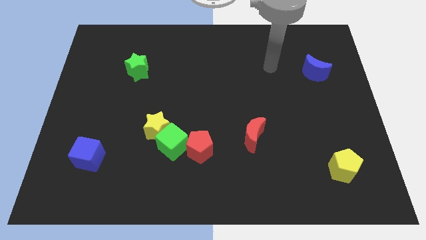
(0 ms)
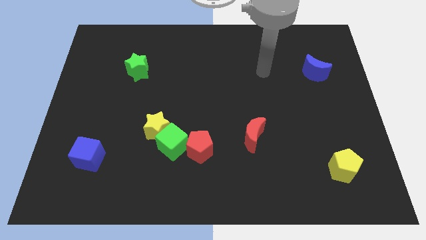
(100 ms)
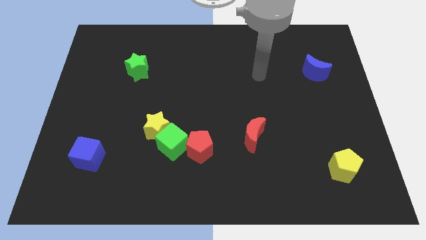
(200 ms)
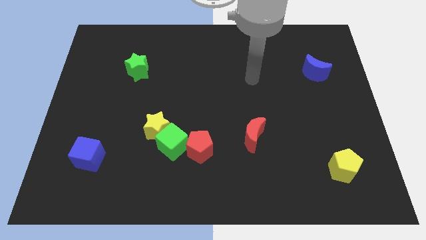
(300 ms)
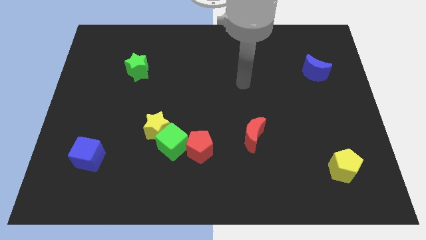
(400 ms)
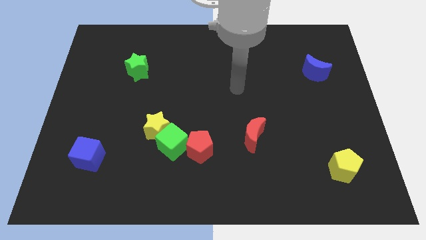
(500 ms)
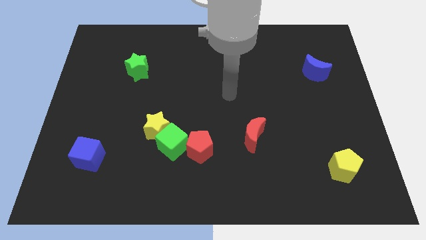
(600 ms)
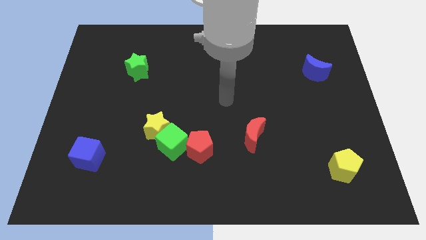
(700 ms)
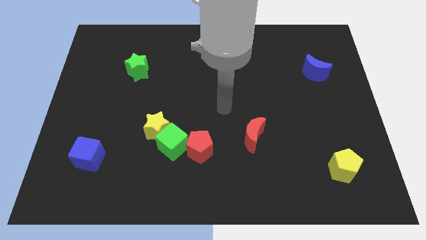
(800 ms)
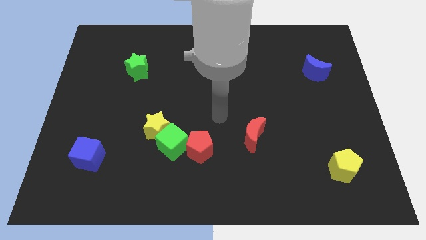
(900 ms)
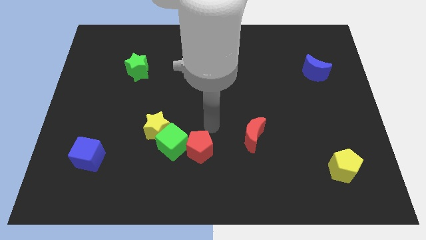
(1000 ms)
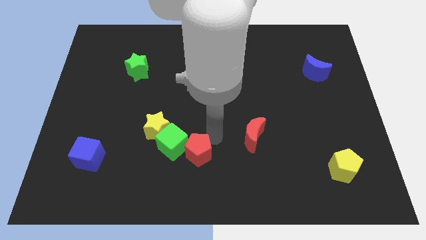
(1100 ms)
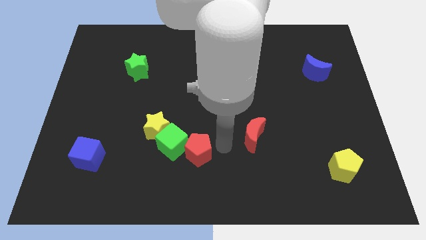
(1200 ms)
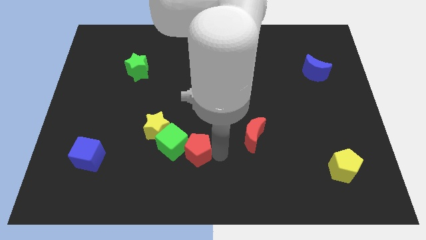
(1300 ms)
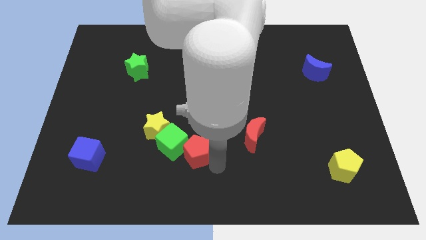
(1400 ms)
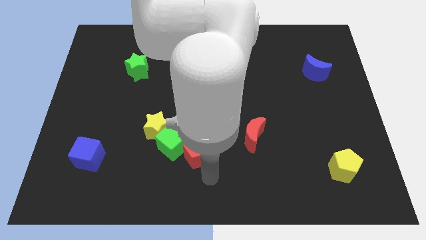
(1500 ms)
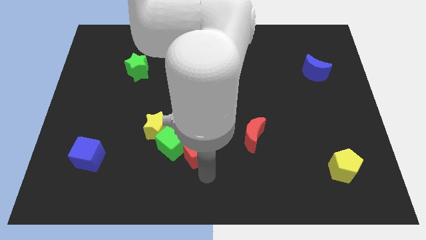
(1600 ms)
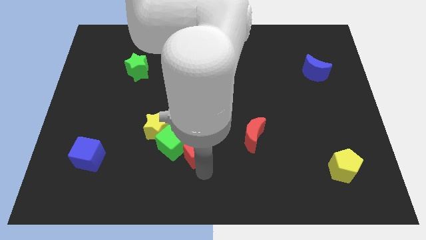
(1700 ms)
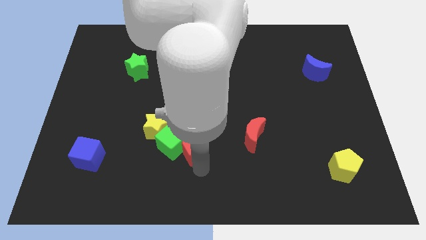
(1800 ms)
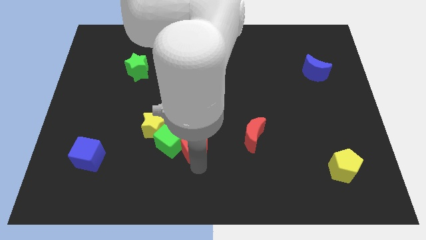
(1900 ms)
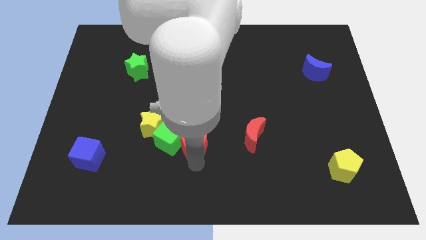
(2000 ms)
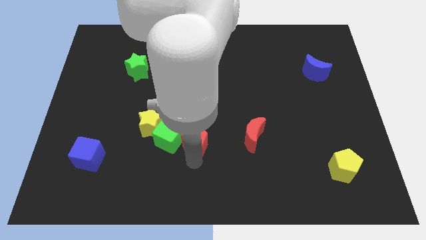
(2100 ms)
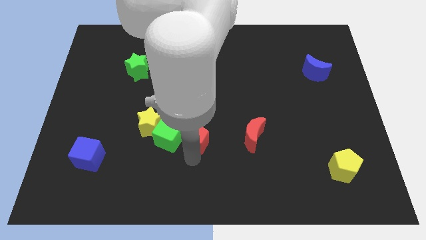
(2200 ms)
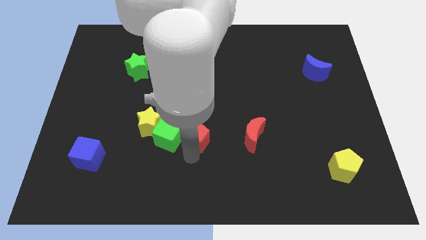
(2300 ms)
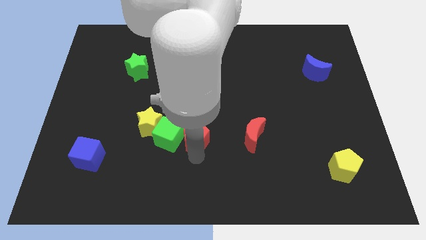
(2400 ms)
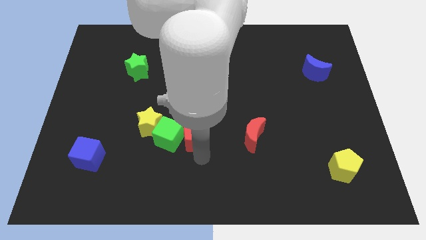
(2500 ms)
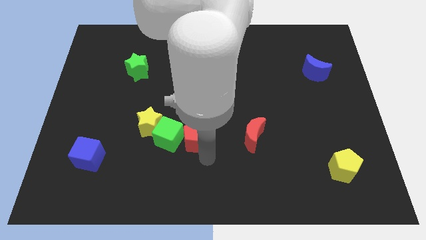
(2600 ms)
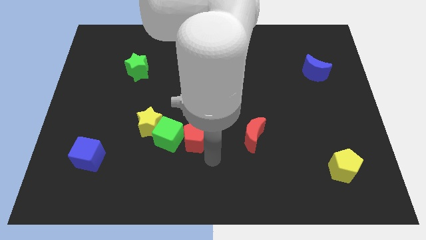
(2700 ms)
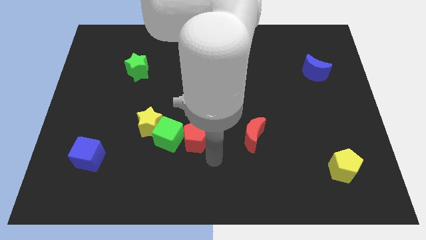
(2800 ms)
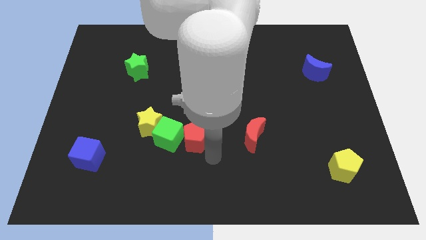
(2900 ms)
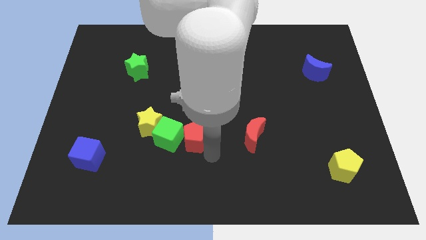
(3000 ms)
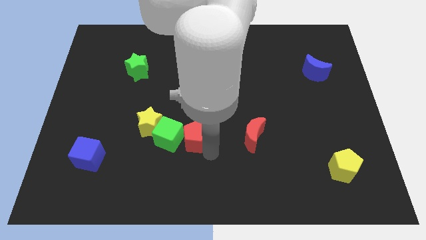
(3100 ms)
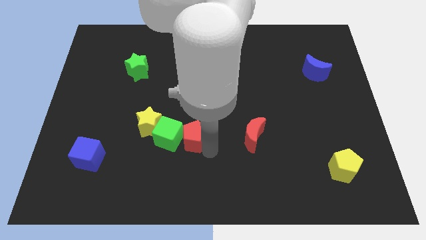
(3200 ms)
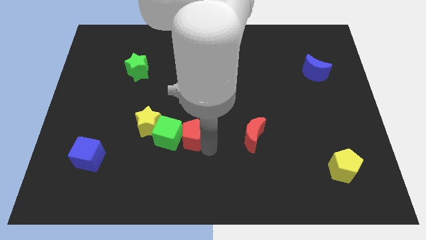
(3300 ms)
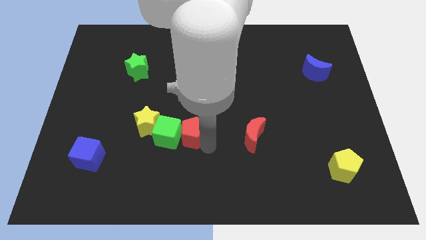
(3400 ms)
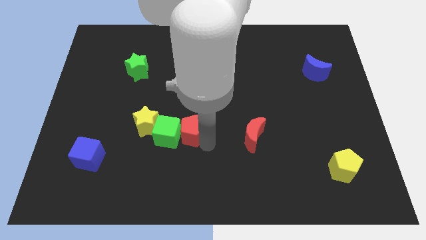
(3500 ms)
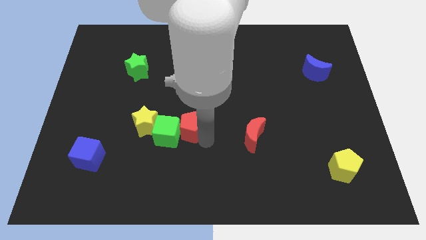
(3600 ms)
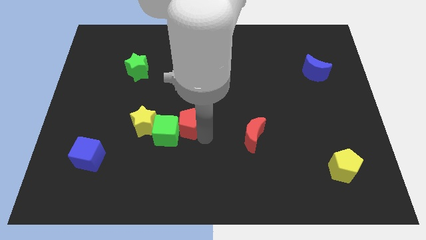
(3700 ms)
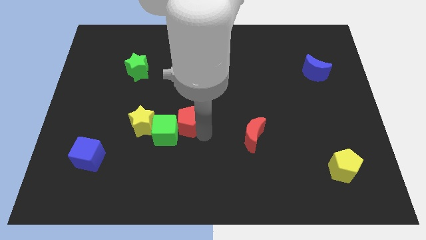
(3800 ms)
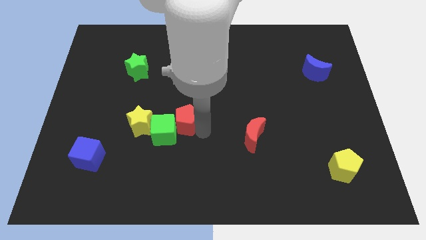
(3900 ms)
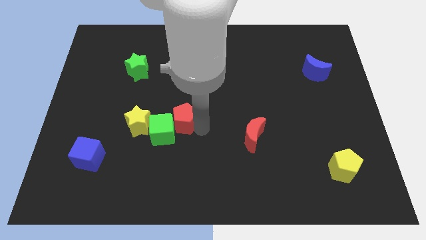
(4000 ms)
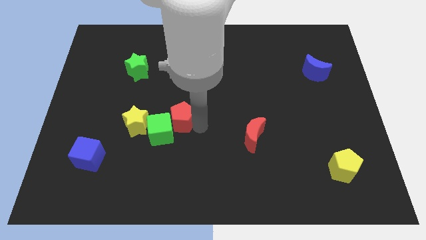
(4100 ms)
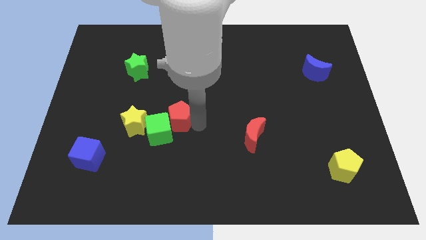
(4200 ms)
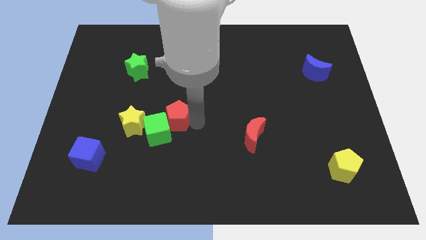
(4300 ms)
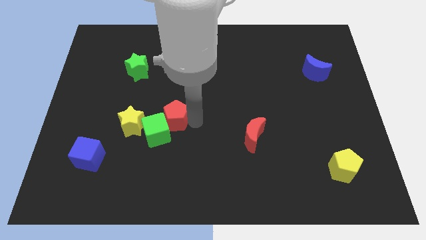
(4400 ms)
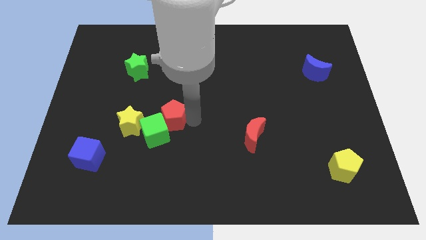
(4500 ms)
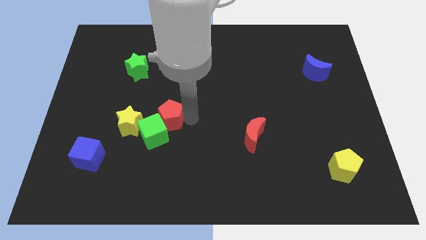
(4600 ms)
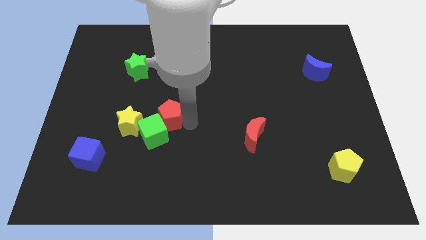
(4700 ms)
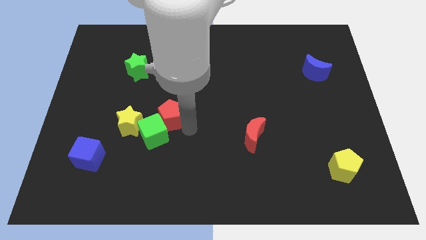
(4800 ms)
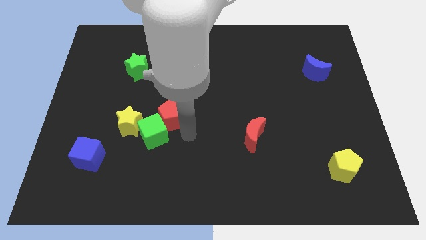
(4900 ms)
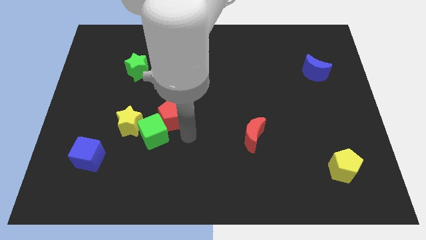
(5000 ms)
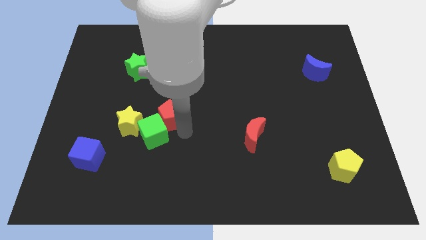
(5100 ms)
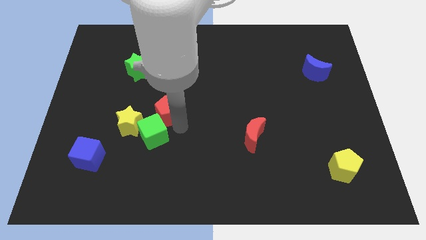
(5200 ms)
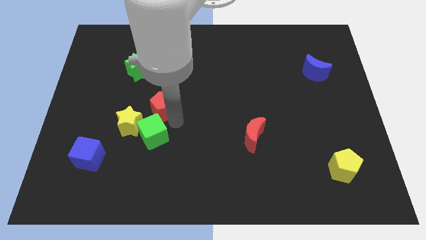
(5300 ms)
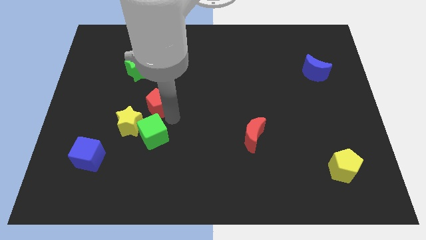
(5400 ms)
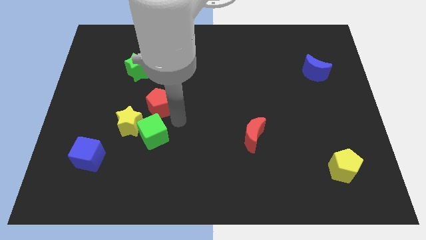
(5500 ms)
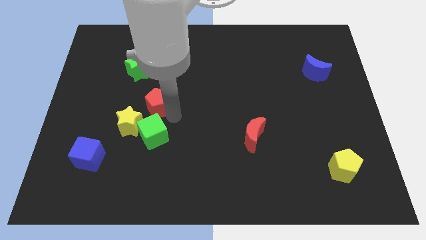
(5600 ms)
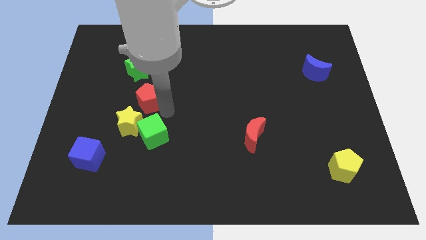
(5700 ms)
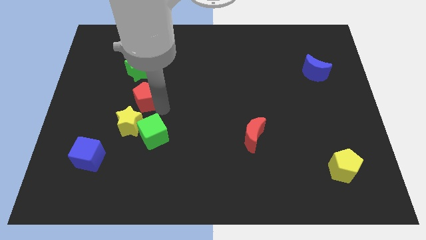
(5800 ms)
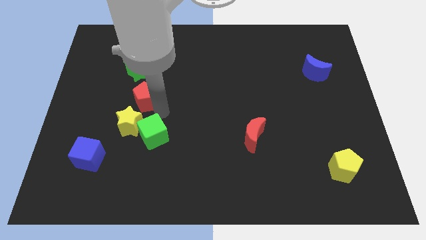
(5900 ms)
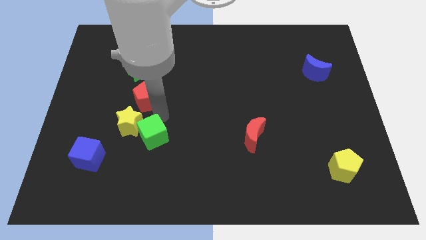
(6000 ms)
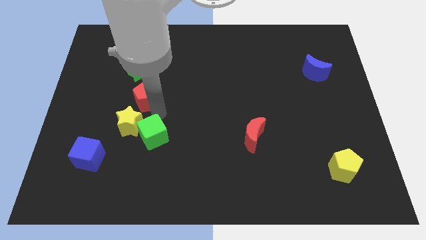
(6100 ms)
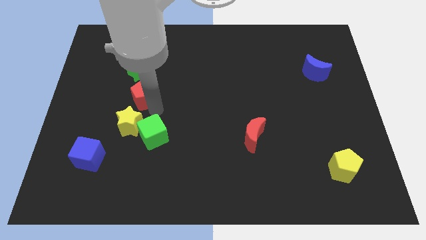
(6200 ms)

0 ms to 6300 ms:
push the red pentagon up and to the left

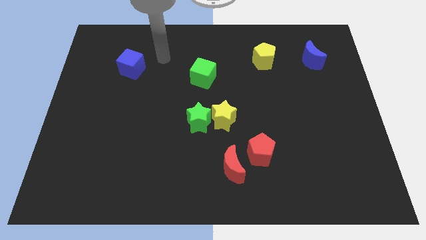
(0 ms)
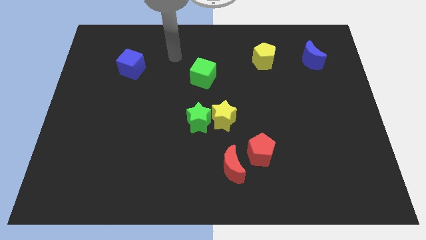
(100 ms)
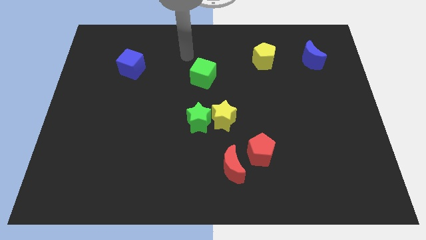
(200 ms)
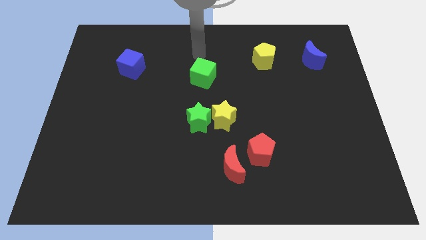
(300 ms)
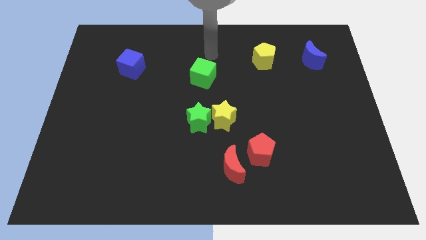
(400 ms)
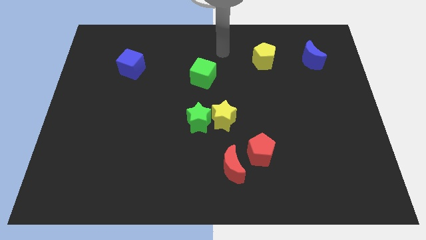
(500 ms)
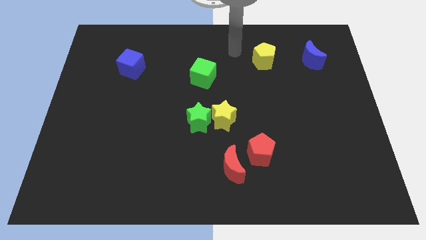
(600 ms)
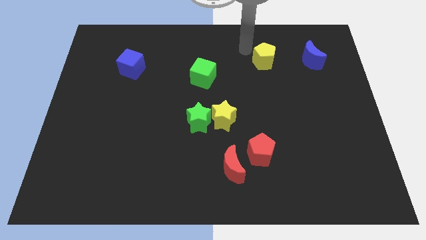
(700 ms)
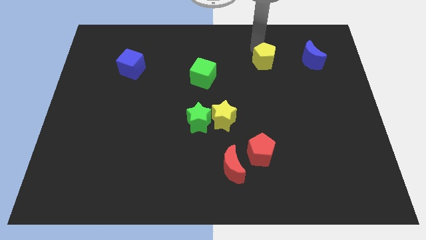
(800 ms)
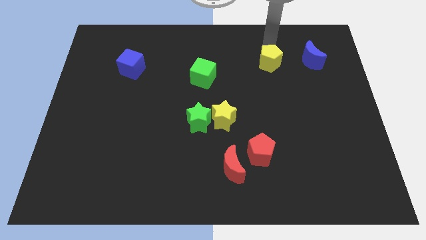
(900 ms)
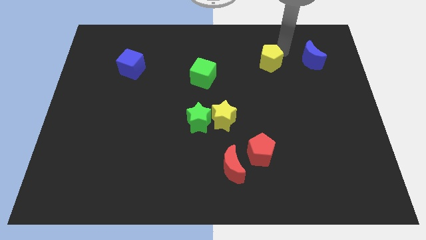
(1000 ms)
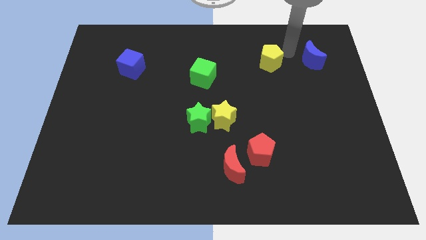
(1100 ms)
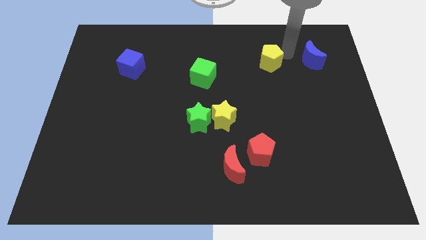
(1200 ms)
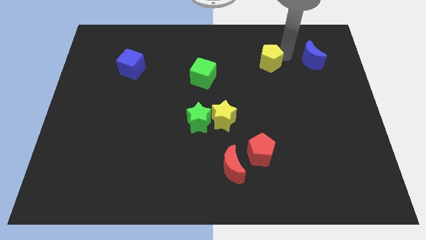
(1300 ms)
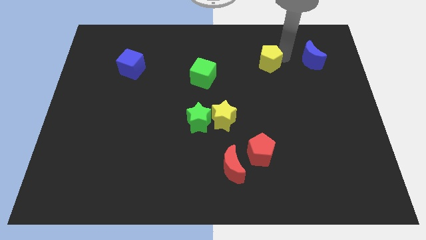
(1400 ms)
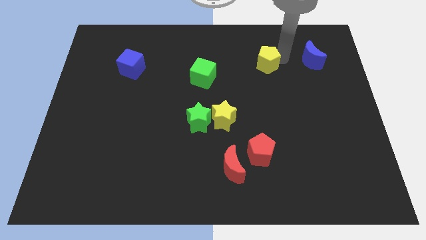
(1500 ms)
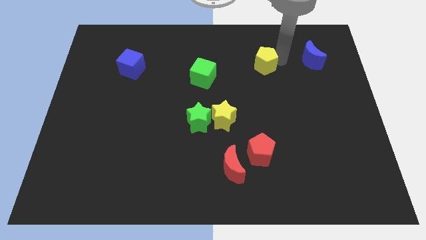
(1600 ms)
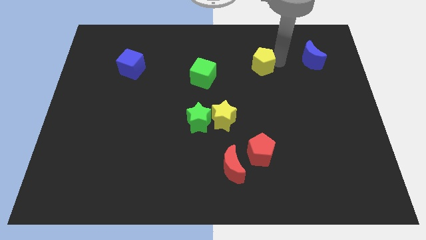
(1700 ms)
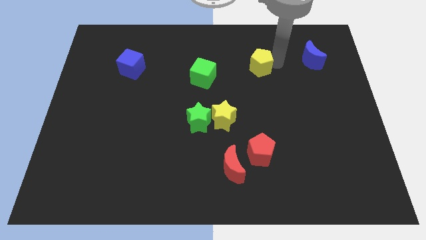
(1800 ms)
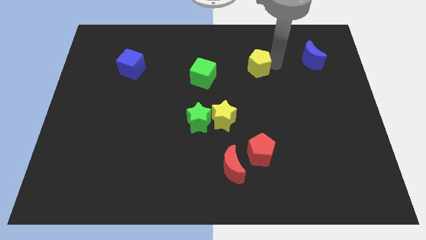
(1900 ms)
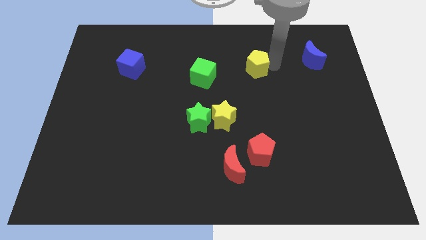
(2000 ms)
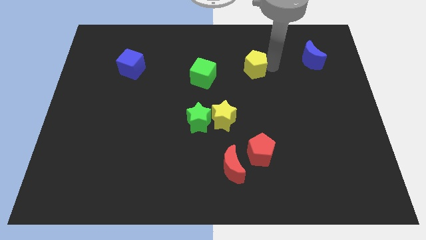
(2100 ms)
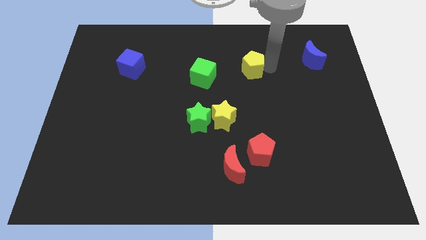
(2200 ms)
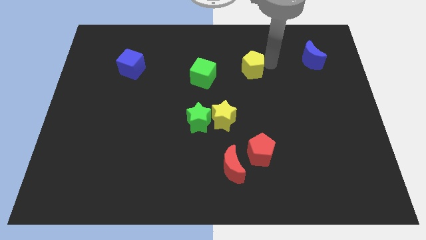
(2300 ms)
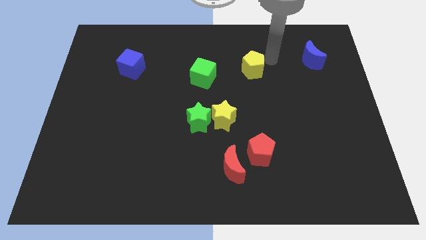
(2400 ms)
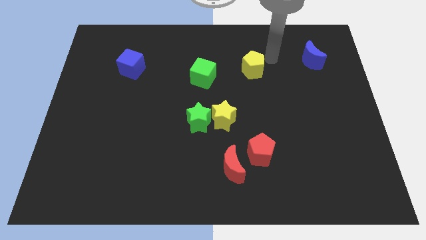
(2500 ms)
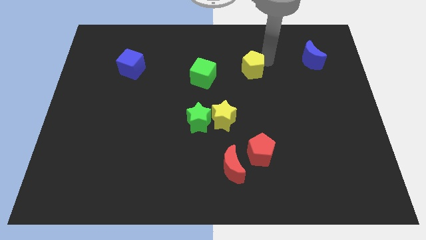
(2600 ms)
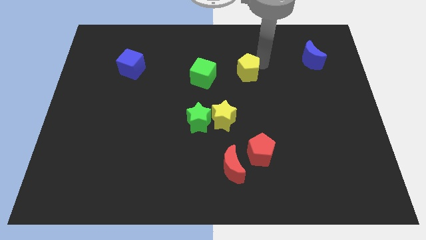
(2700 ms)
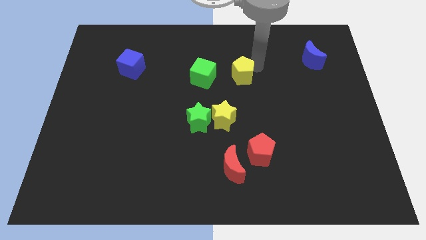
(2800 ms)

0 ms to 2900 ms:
move the yellow pentagon a little bit down and then to the left
